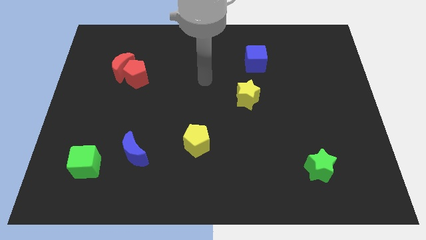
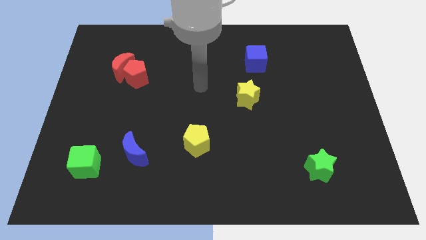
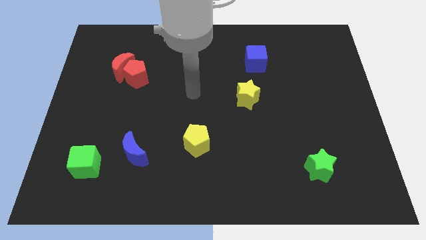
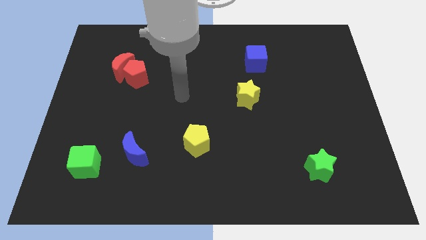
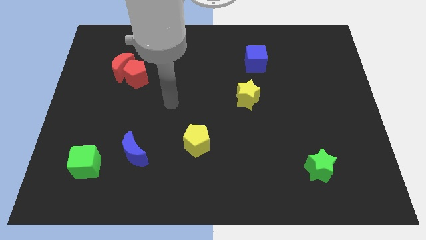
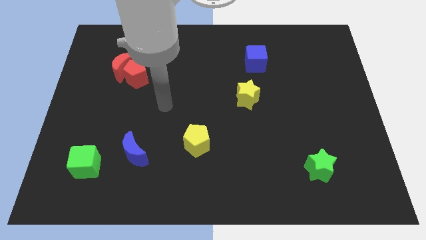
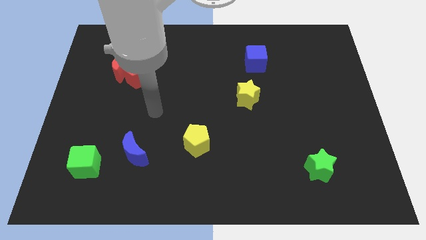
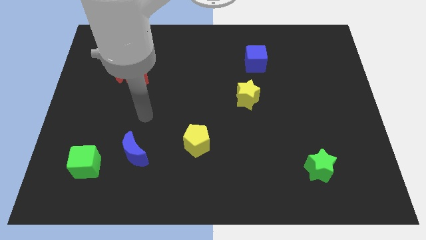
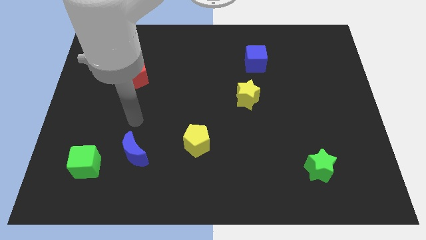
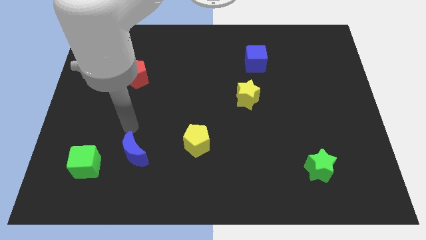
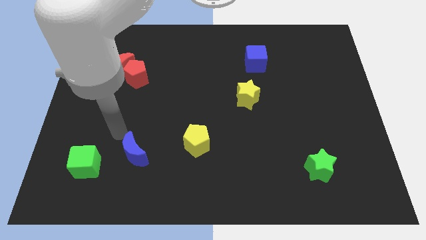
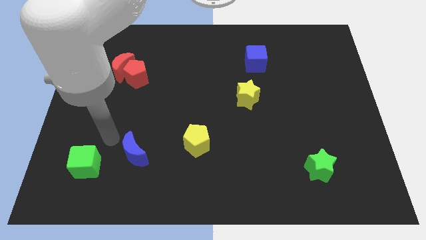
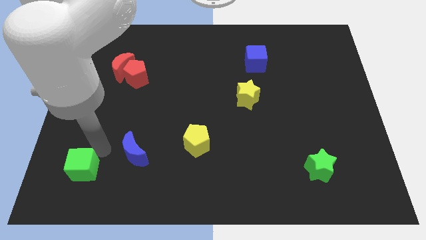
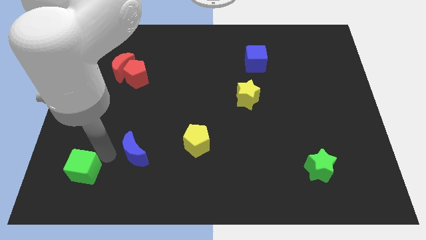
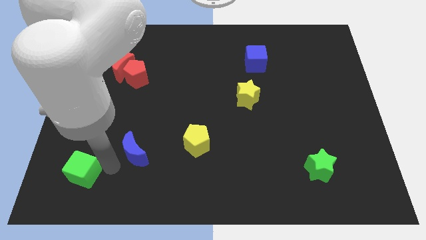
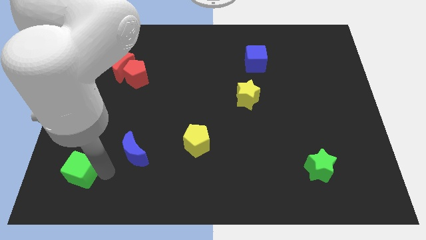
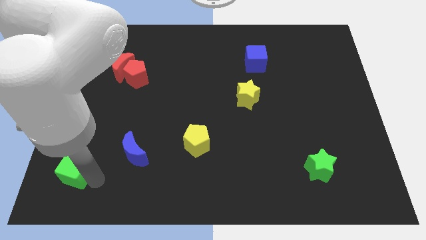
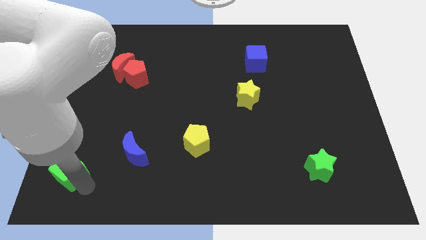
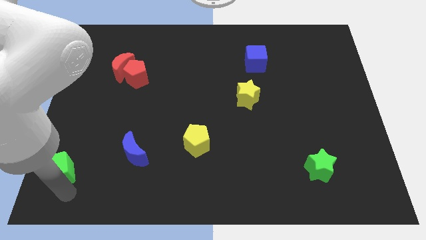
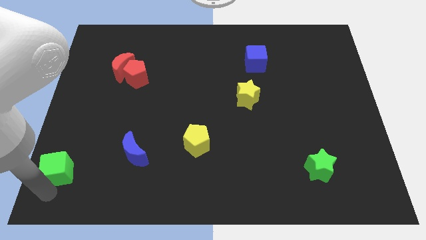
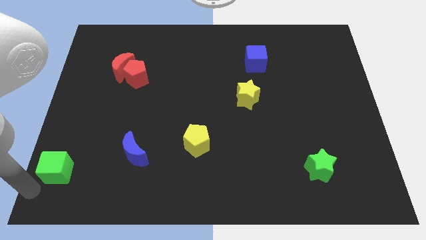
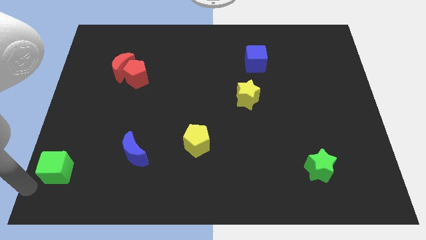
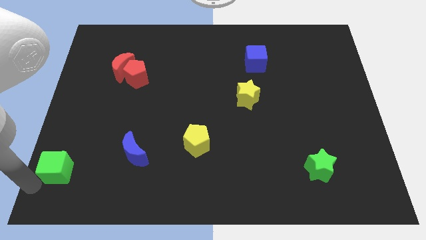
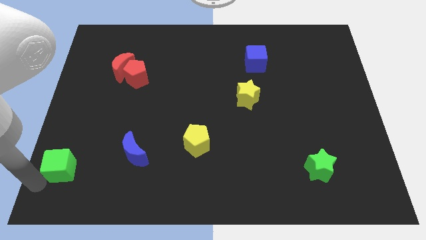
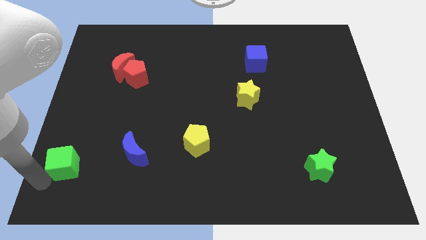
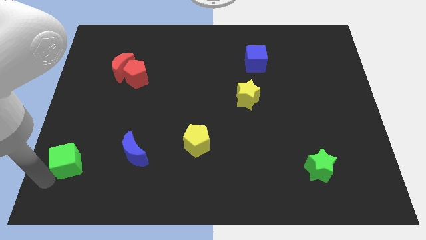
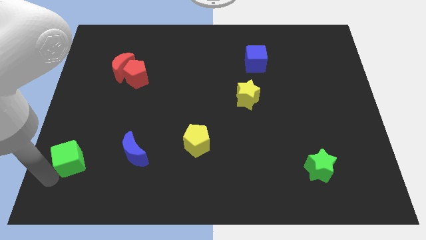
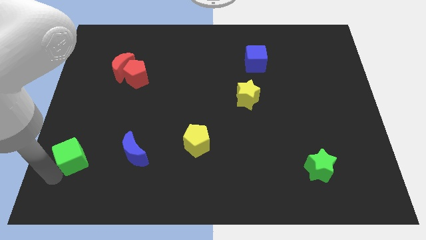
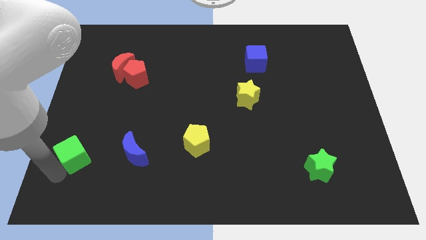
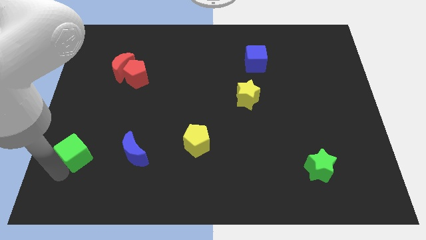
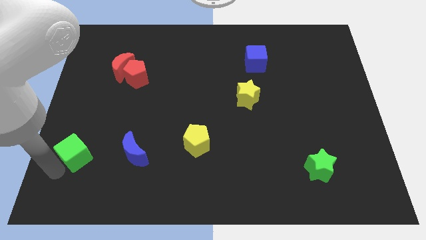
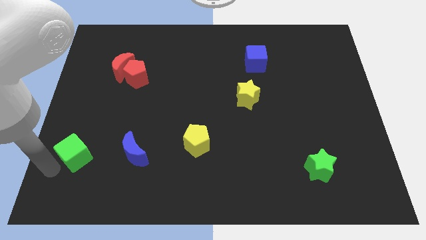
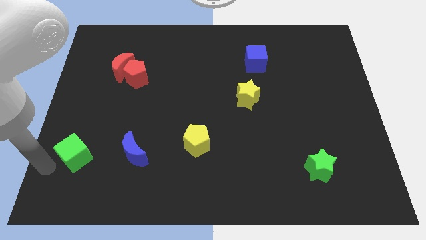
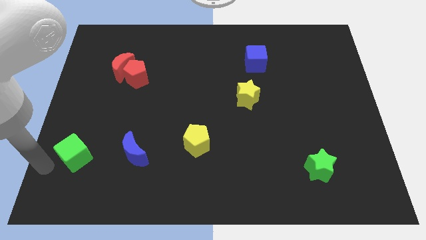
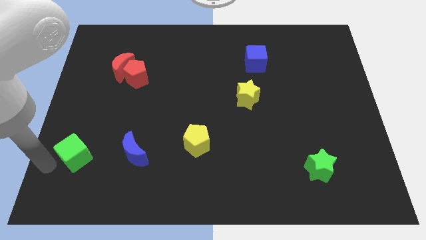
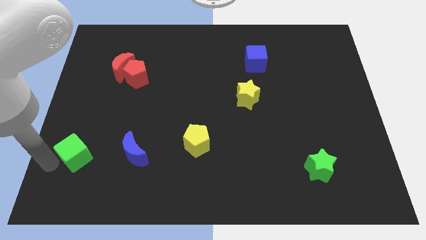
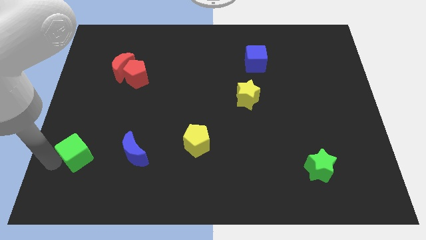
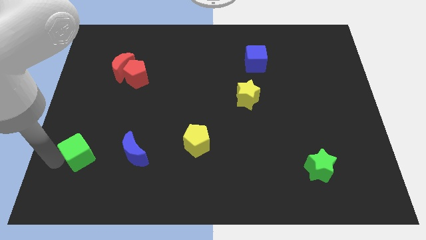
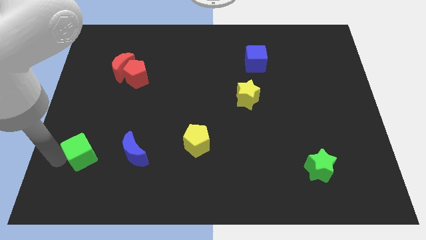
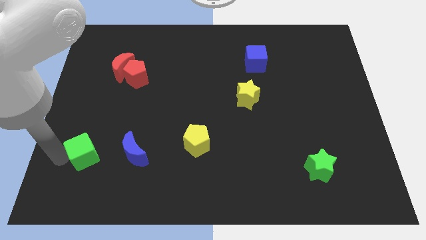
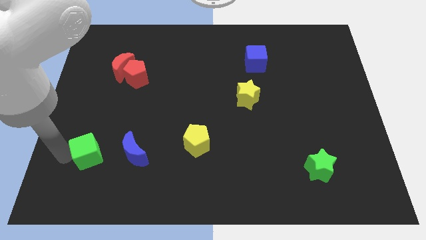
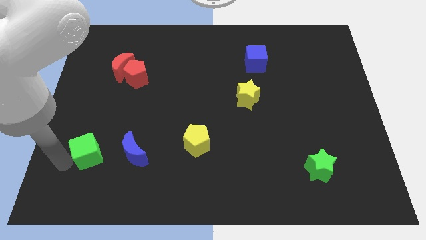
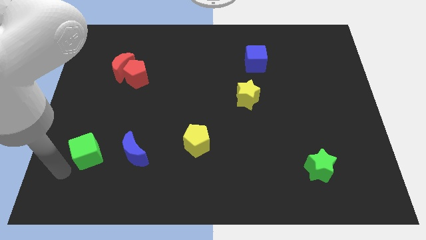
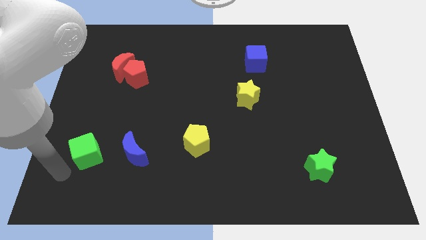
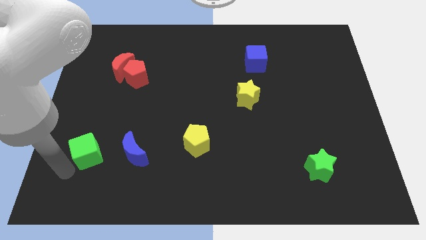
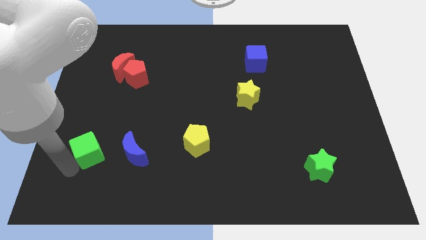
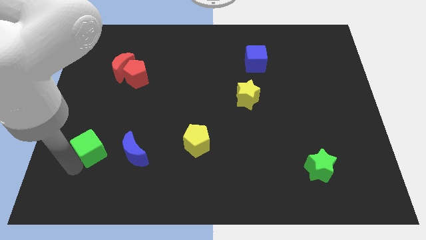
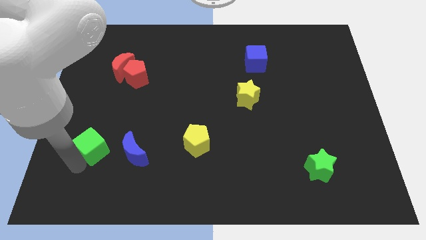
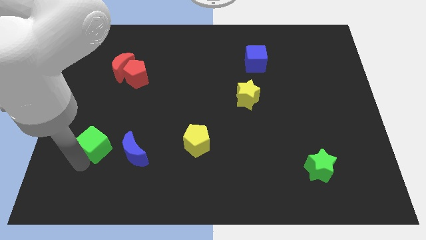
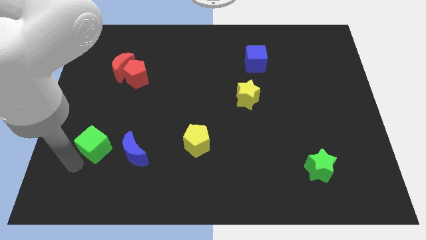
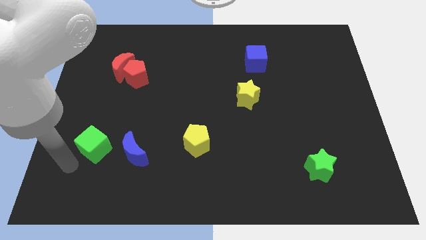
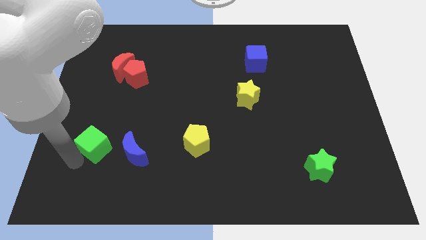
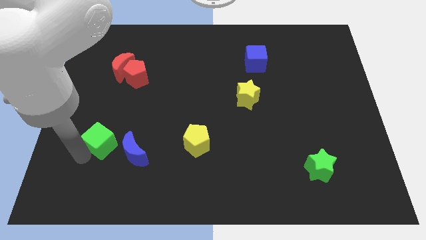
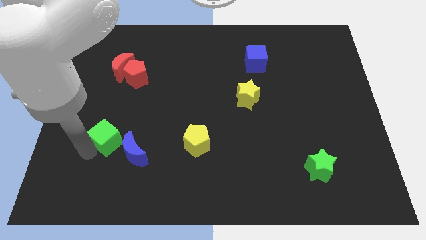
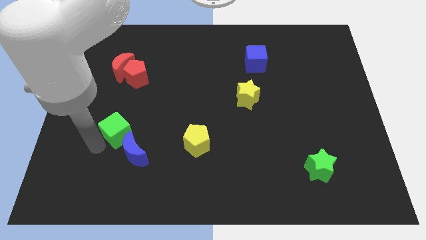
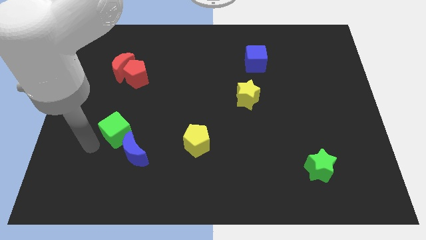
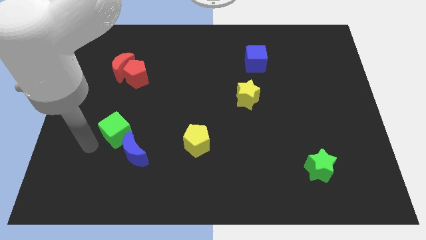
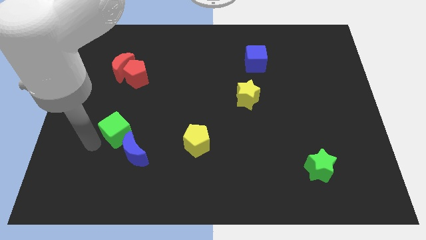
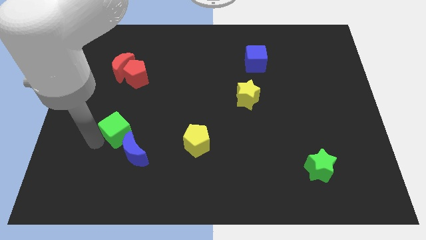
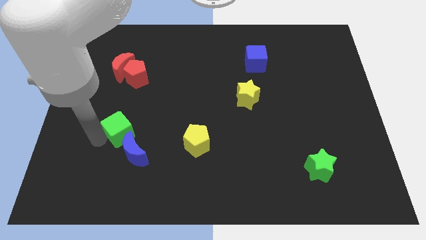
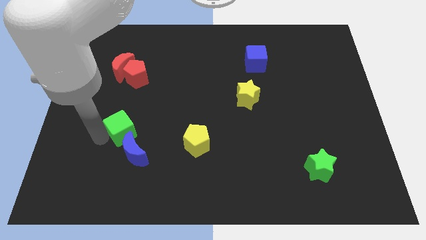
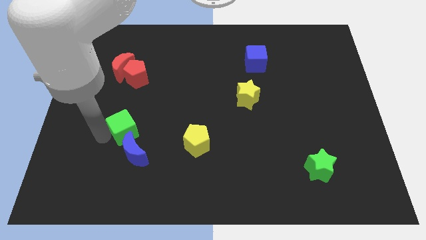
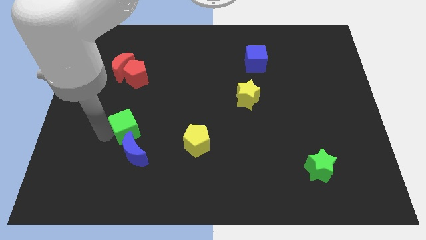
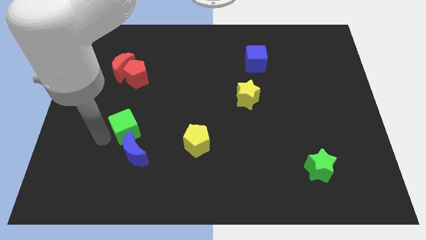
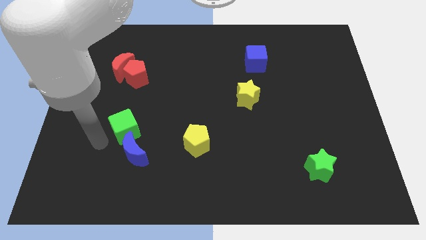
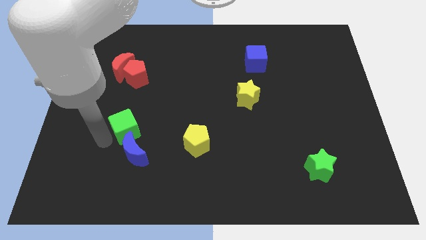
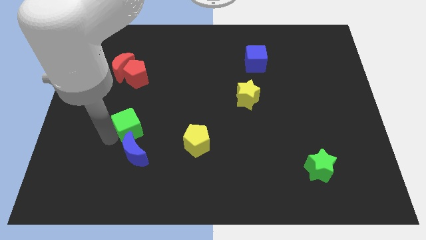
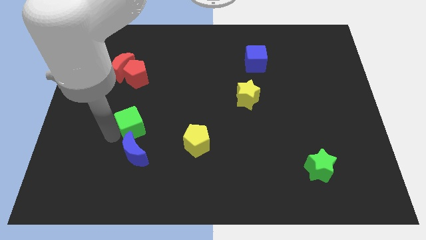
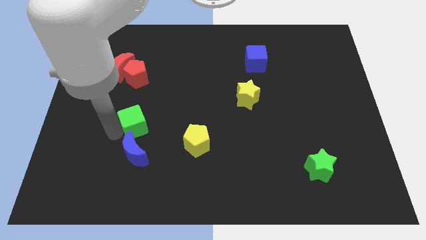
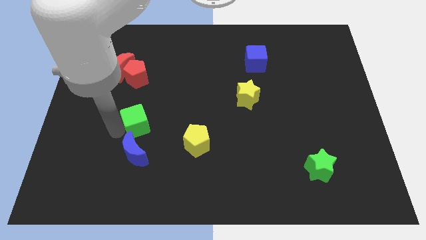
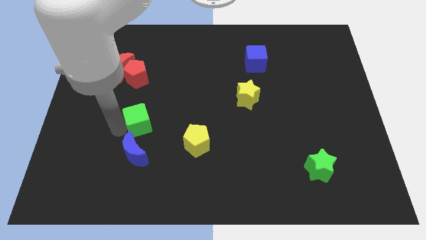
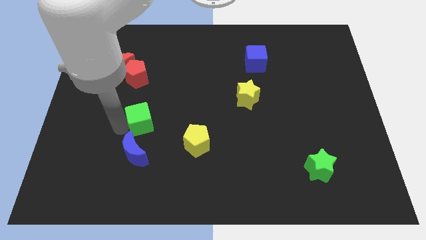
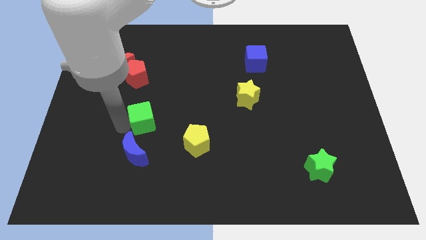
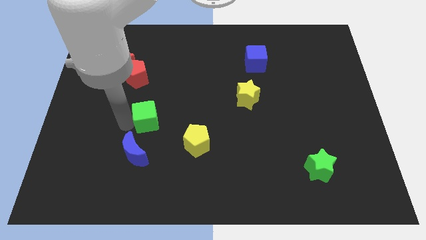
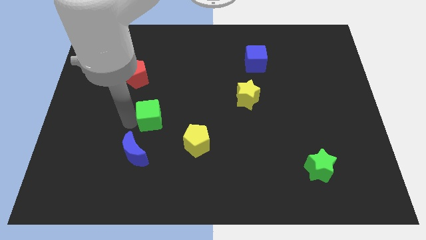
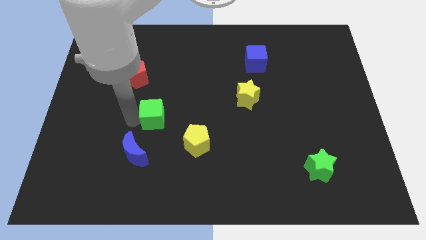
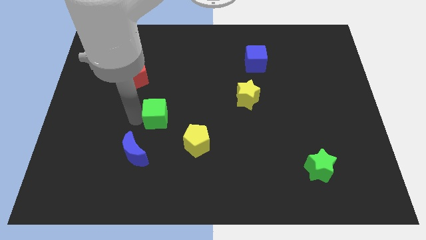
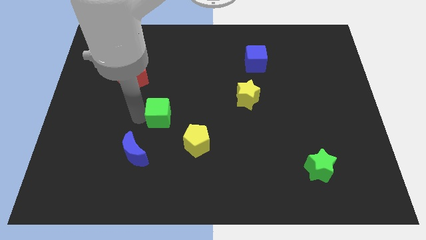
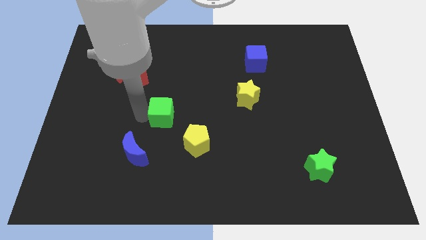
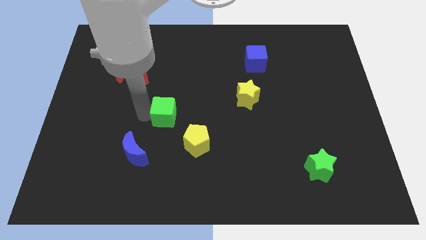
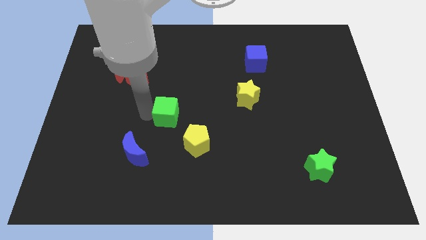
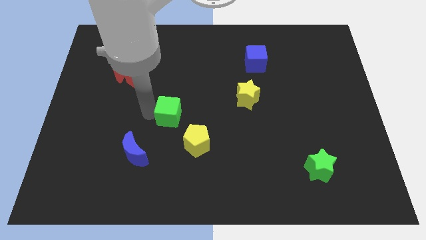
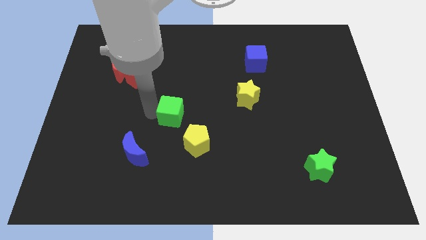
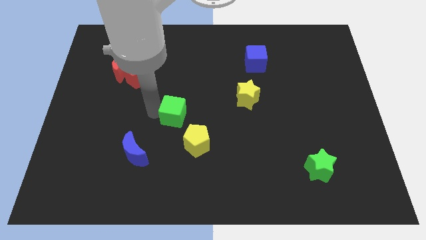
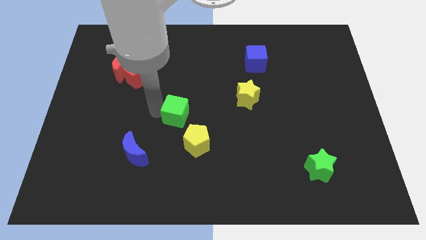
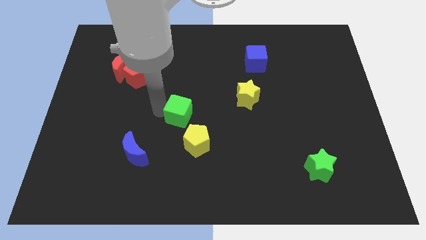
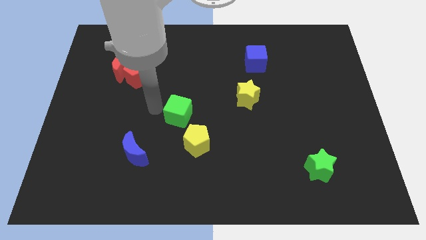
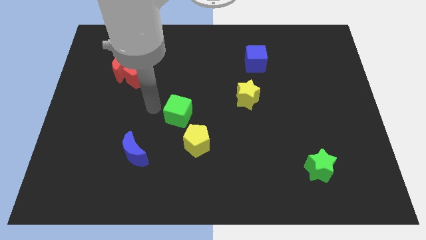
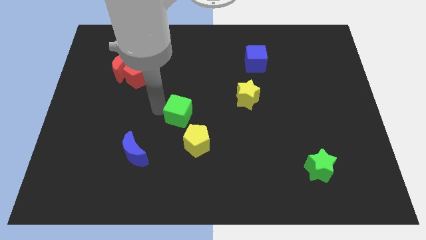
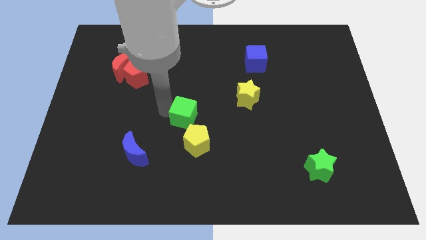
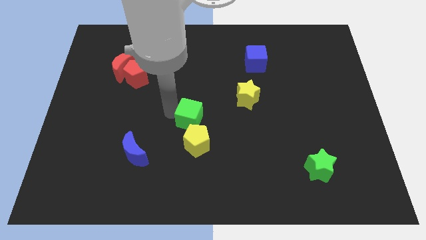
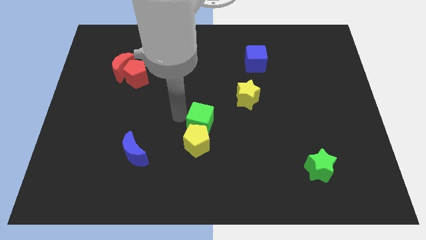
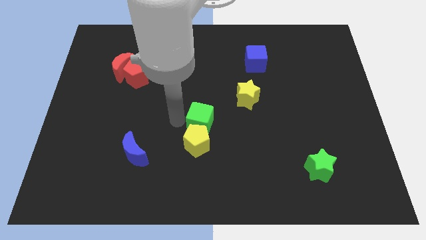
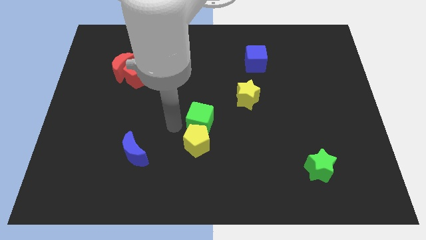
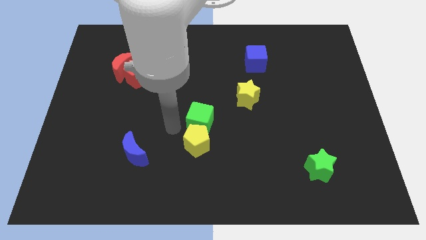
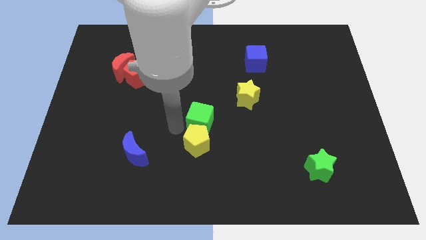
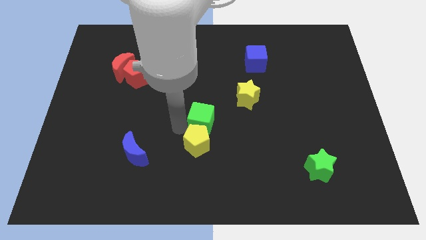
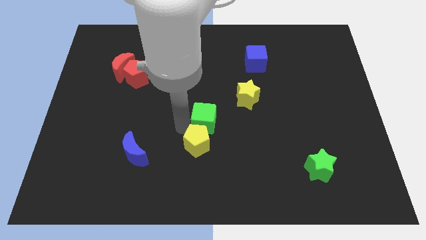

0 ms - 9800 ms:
slide the green cube to the bottom left side of the yellow star
